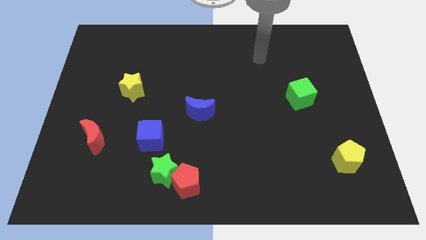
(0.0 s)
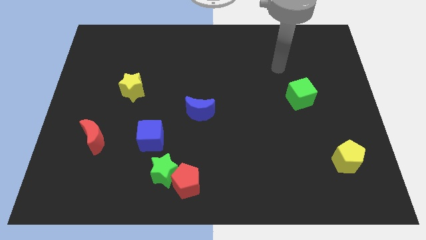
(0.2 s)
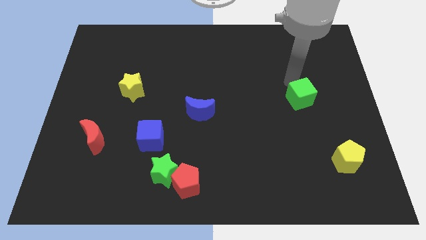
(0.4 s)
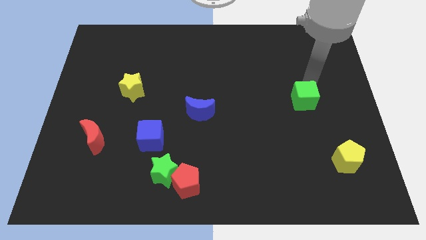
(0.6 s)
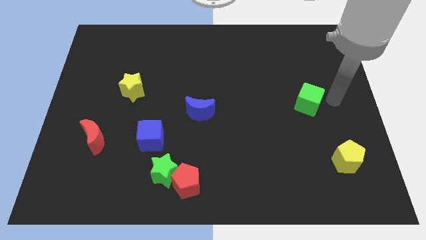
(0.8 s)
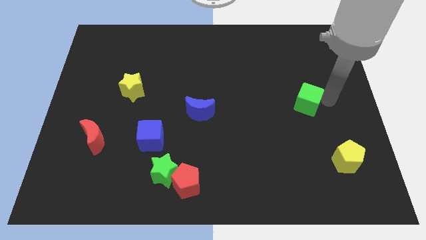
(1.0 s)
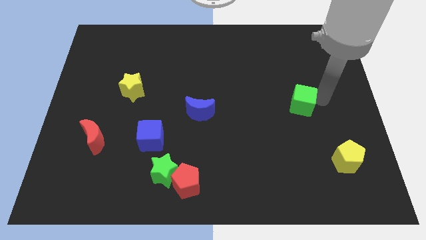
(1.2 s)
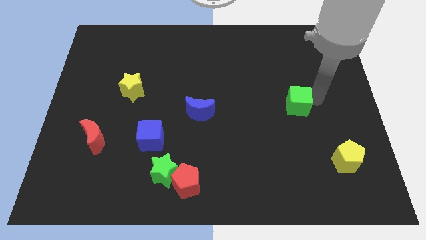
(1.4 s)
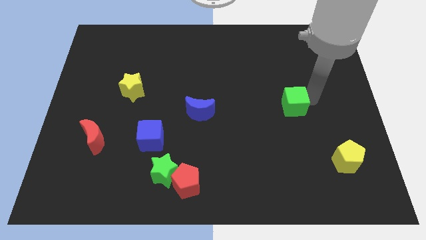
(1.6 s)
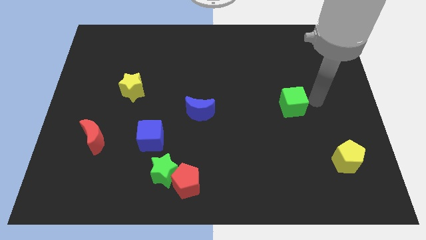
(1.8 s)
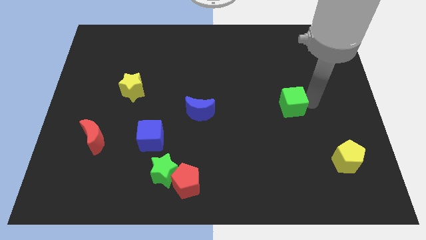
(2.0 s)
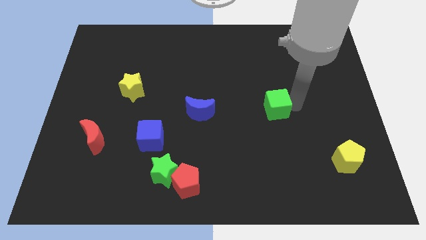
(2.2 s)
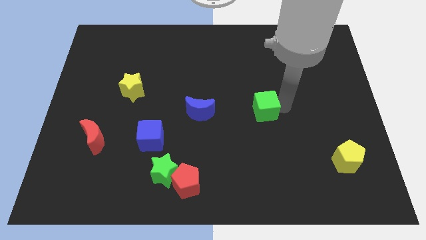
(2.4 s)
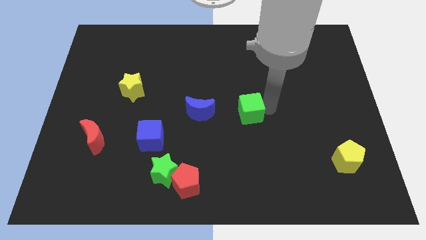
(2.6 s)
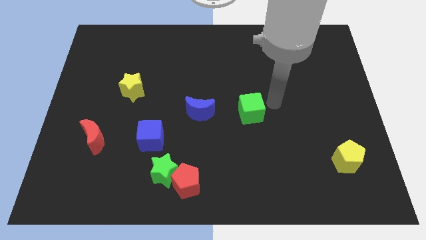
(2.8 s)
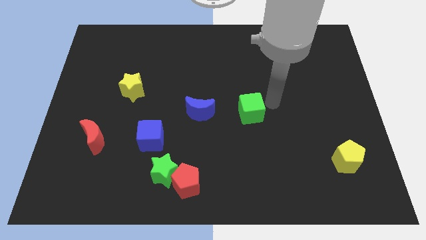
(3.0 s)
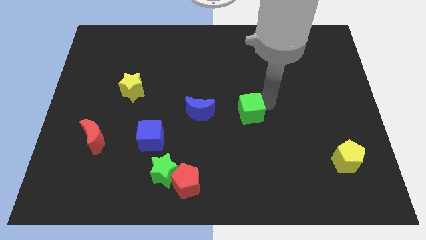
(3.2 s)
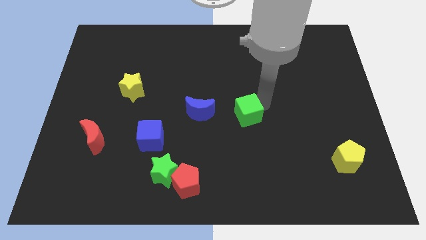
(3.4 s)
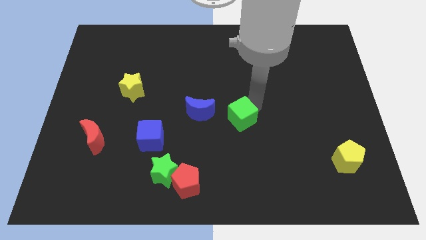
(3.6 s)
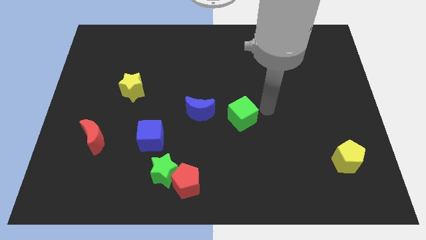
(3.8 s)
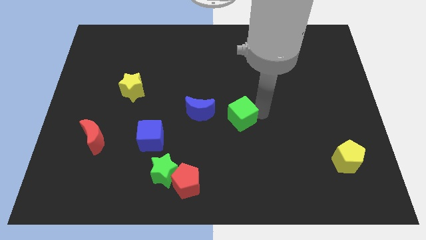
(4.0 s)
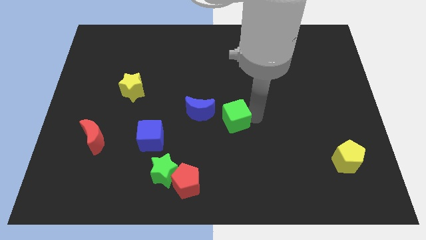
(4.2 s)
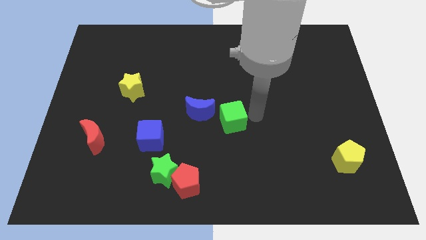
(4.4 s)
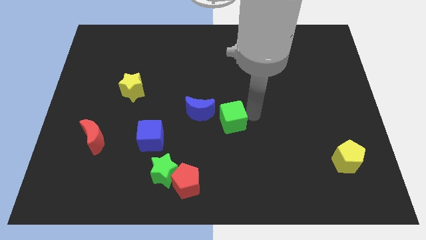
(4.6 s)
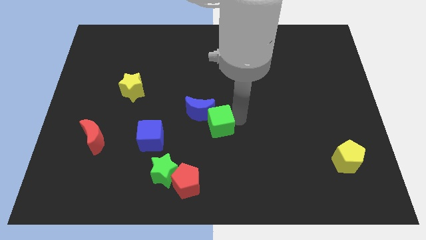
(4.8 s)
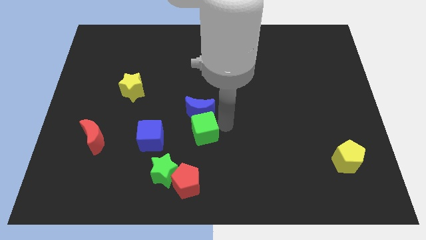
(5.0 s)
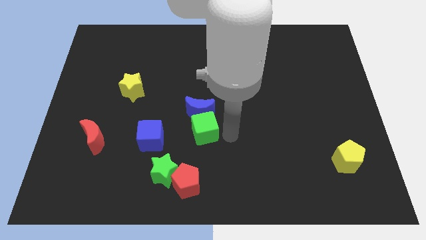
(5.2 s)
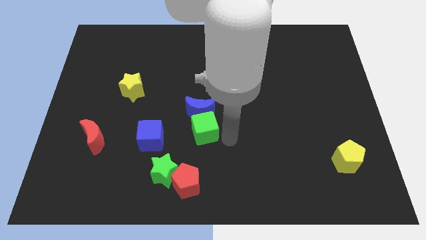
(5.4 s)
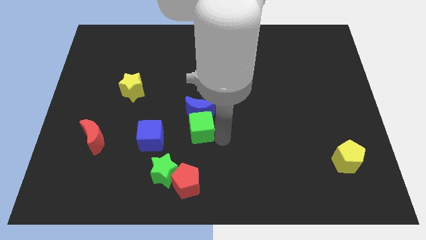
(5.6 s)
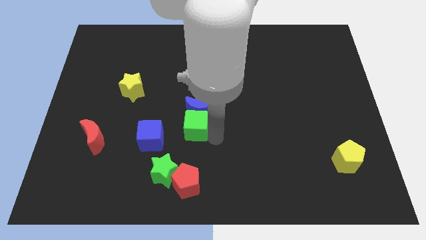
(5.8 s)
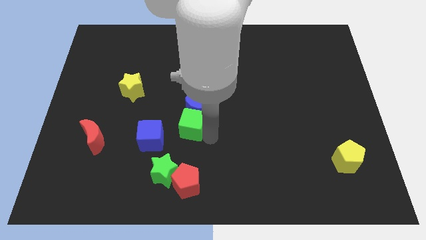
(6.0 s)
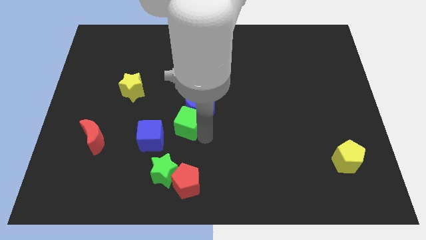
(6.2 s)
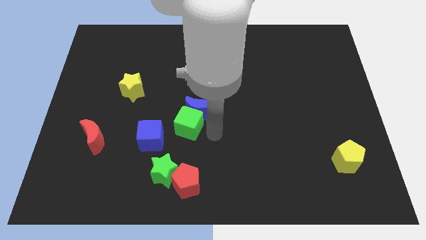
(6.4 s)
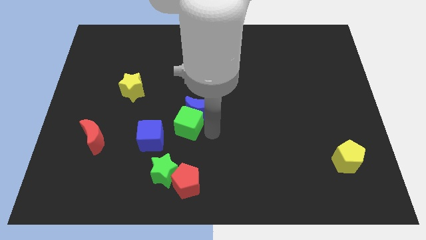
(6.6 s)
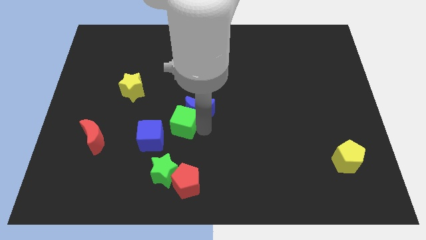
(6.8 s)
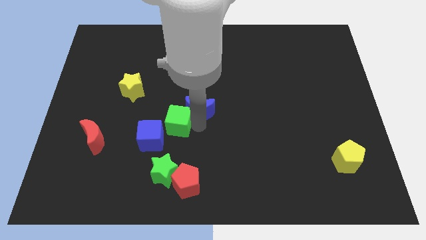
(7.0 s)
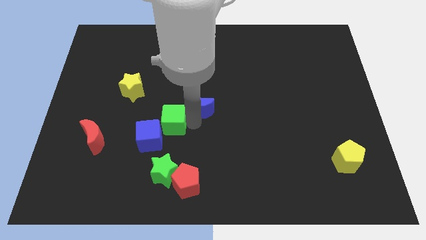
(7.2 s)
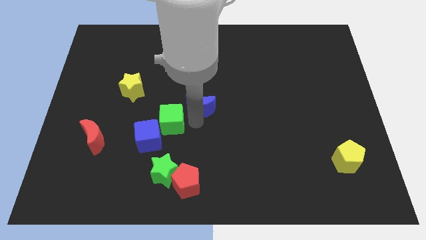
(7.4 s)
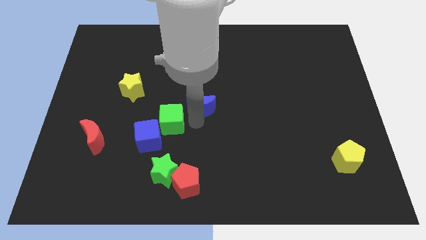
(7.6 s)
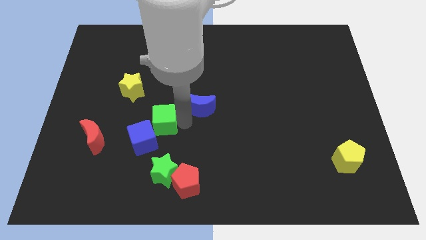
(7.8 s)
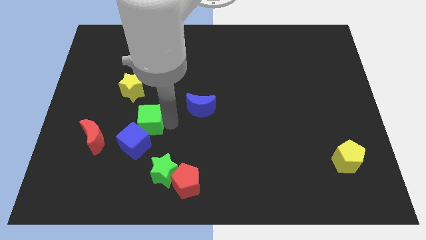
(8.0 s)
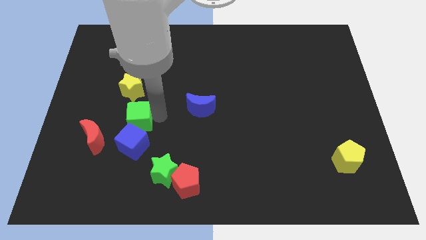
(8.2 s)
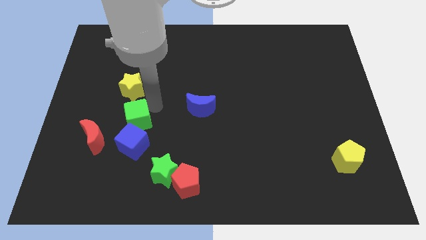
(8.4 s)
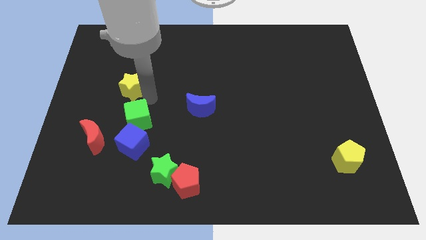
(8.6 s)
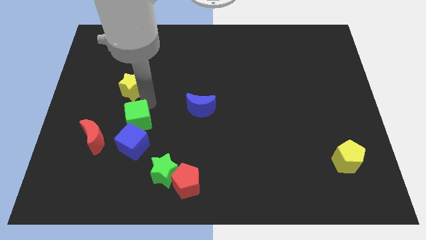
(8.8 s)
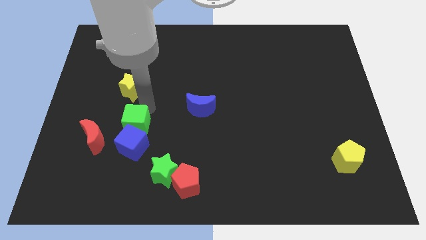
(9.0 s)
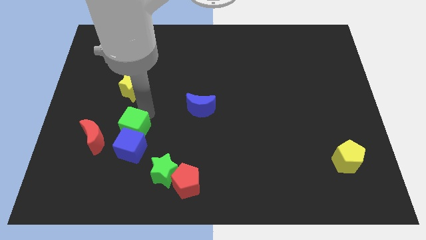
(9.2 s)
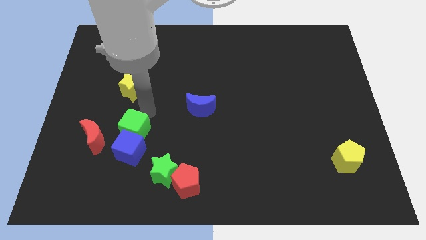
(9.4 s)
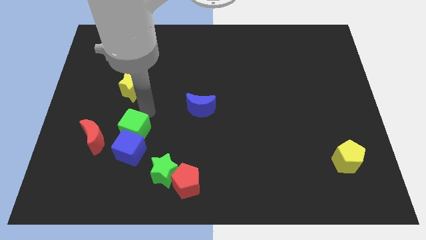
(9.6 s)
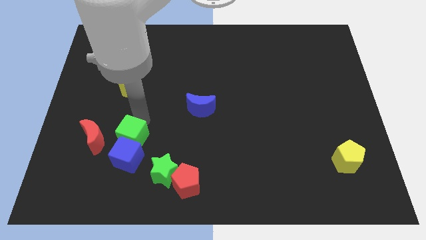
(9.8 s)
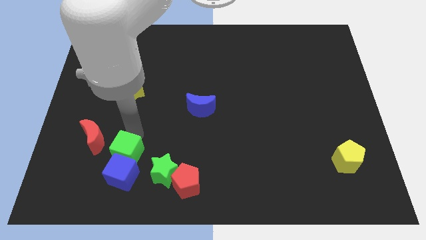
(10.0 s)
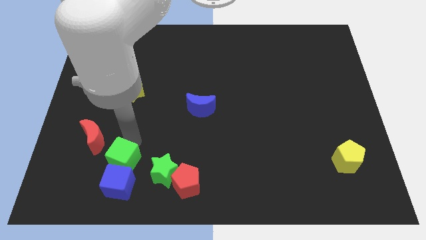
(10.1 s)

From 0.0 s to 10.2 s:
put the green cube left of the green star

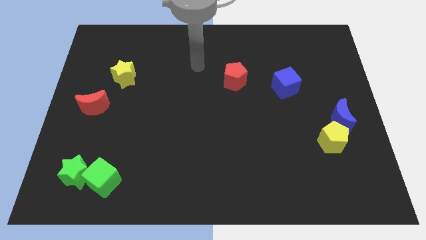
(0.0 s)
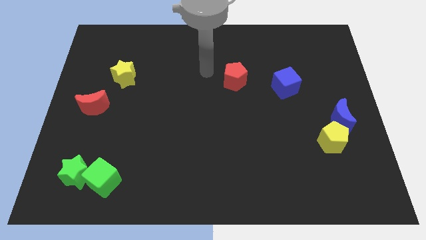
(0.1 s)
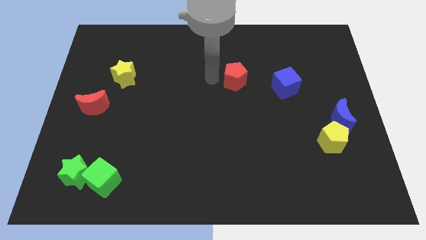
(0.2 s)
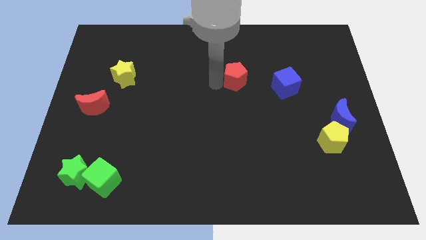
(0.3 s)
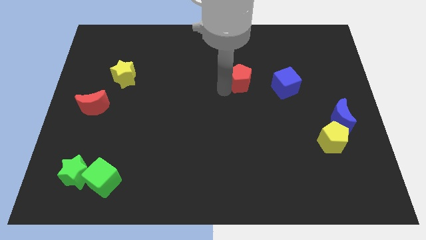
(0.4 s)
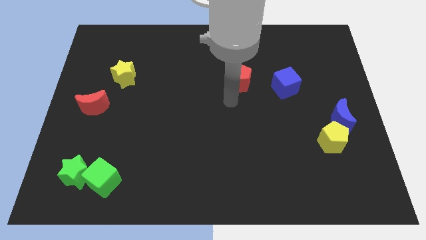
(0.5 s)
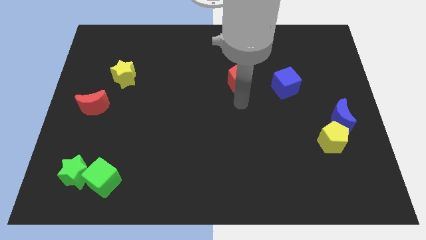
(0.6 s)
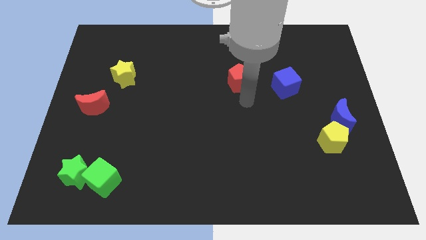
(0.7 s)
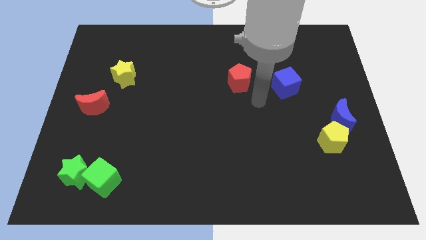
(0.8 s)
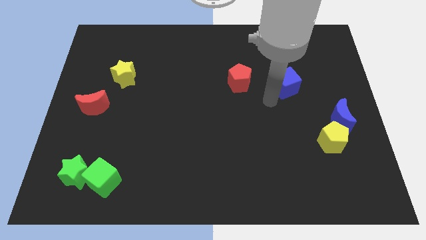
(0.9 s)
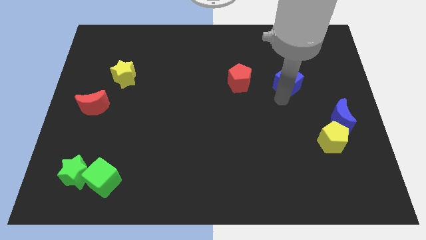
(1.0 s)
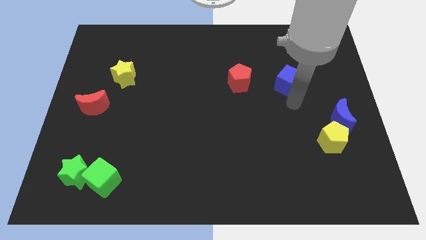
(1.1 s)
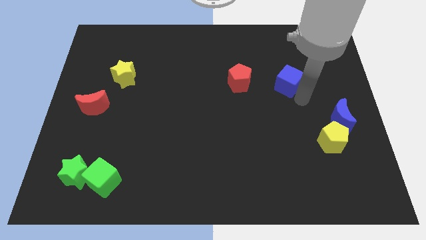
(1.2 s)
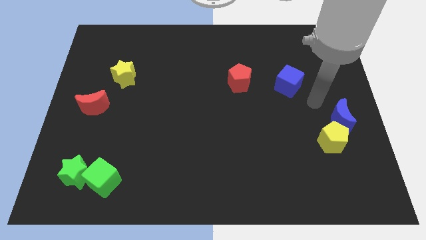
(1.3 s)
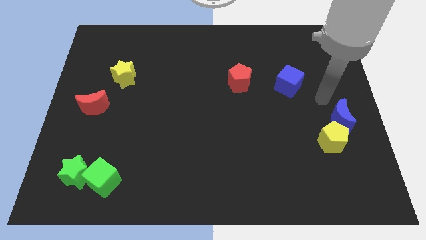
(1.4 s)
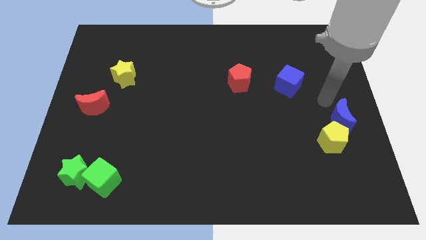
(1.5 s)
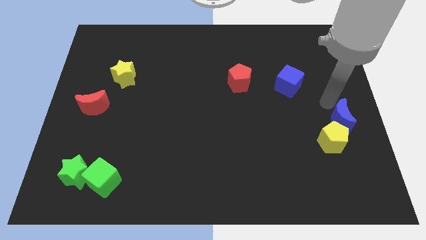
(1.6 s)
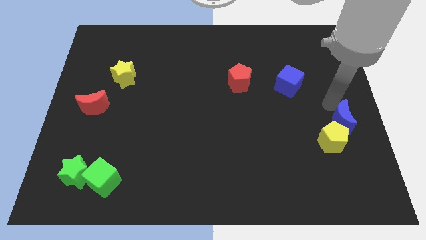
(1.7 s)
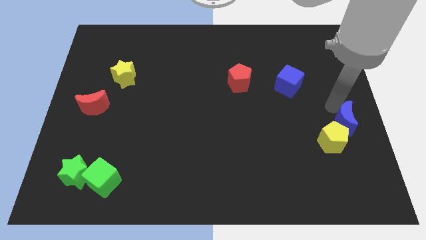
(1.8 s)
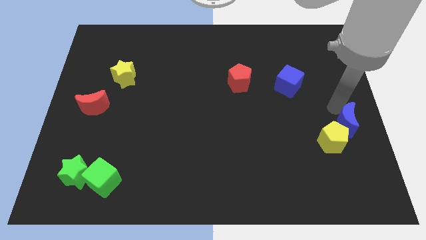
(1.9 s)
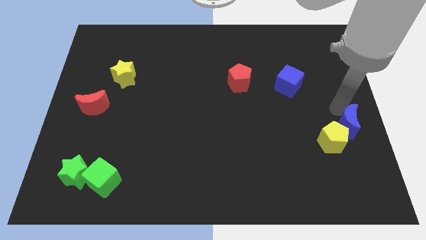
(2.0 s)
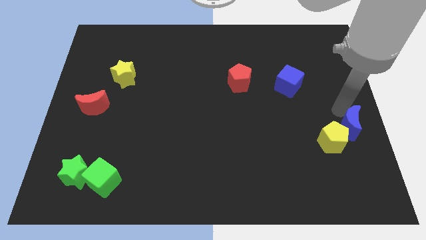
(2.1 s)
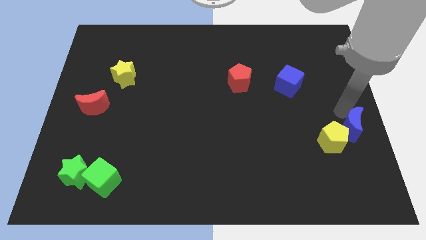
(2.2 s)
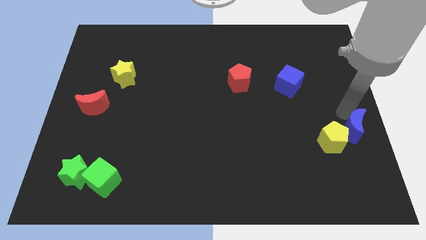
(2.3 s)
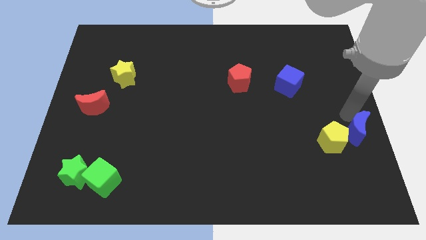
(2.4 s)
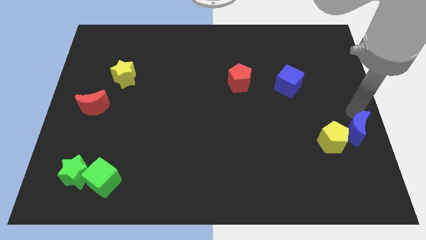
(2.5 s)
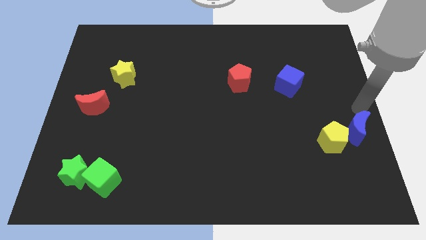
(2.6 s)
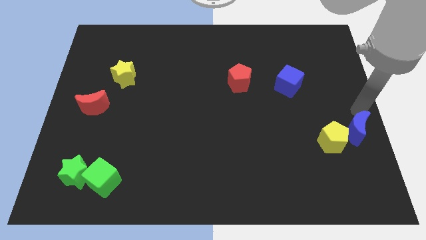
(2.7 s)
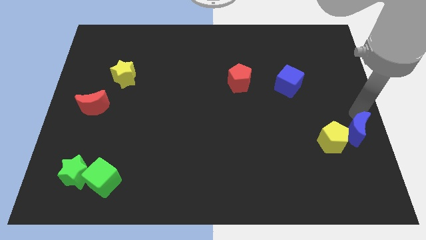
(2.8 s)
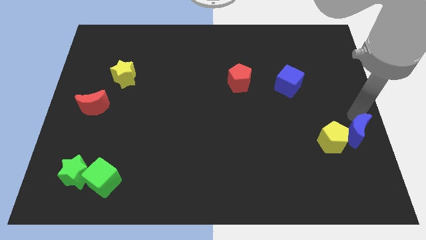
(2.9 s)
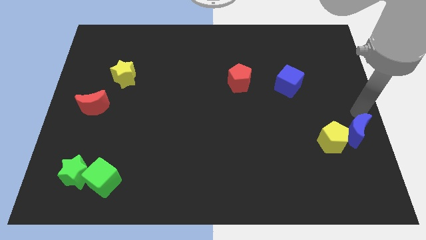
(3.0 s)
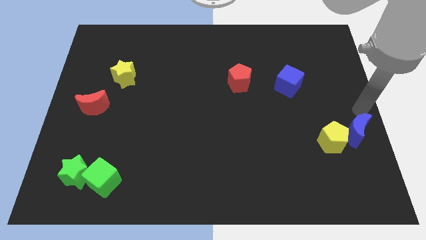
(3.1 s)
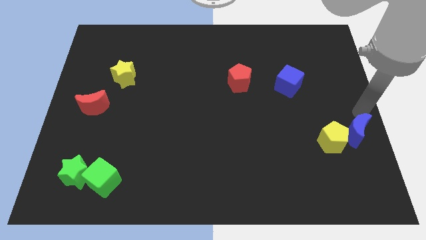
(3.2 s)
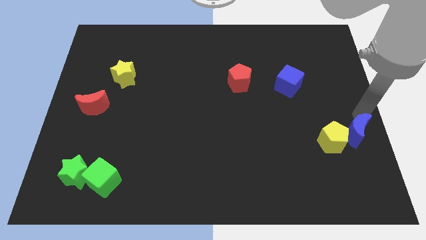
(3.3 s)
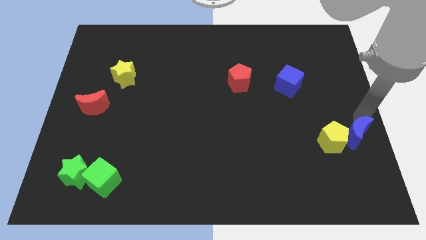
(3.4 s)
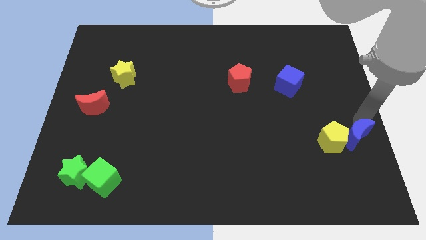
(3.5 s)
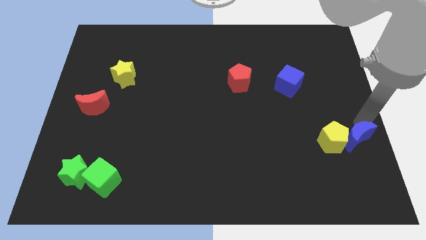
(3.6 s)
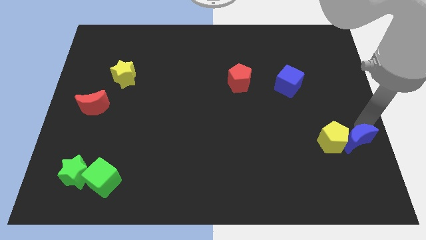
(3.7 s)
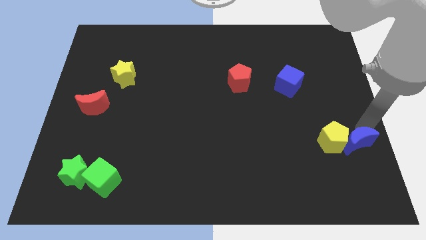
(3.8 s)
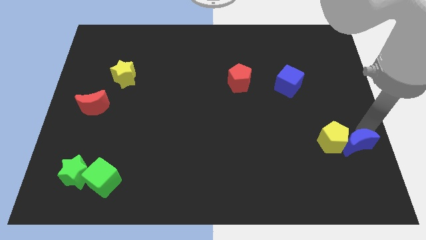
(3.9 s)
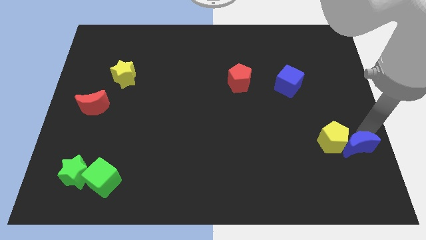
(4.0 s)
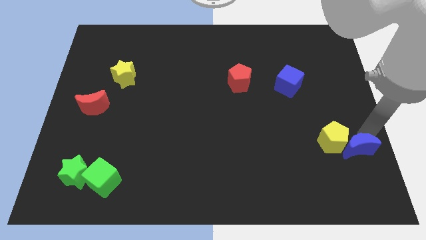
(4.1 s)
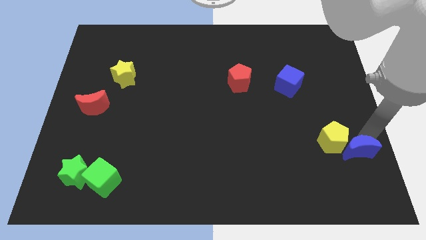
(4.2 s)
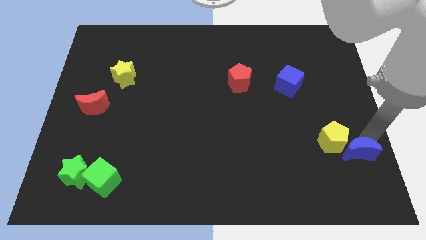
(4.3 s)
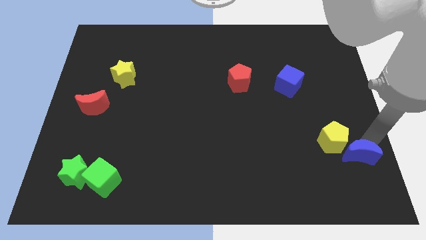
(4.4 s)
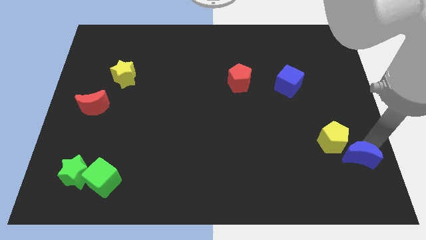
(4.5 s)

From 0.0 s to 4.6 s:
put the blue moon to the bottom of the yellow pentagon
